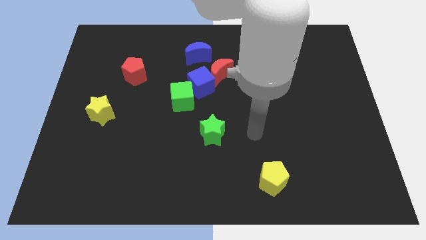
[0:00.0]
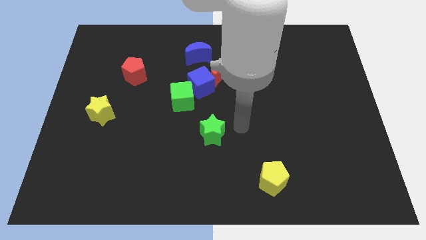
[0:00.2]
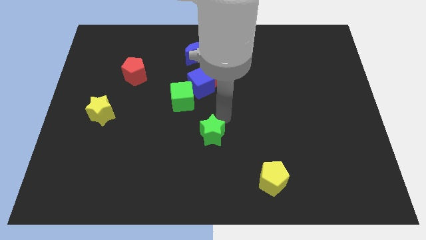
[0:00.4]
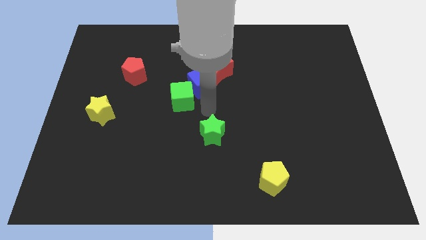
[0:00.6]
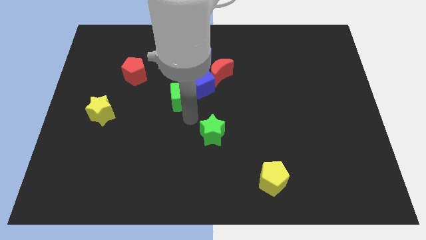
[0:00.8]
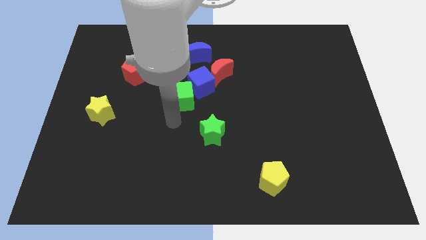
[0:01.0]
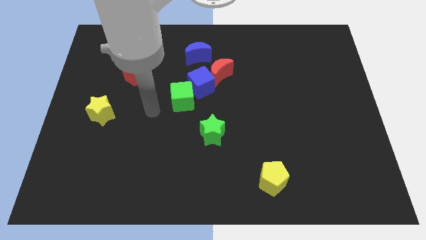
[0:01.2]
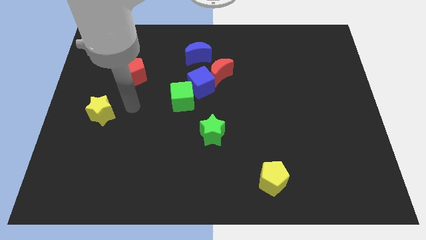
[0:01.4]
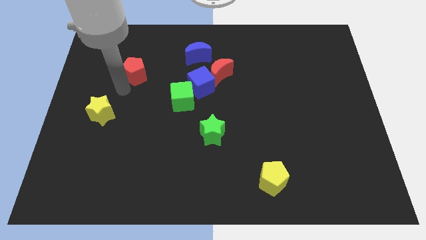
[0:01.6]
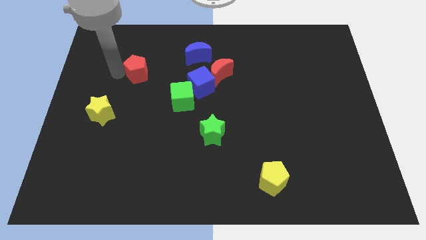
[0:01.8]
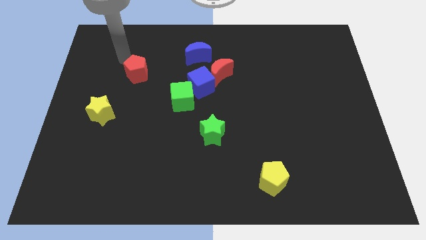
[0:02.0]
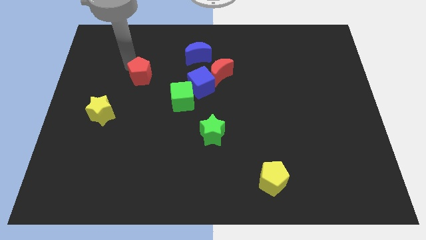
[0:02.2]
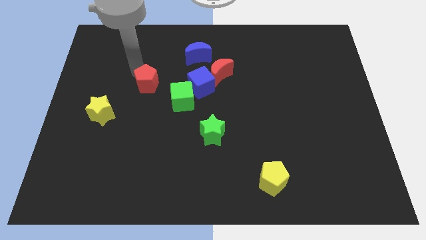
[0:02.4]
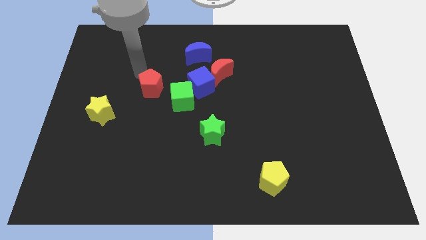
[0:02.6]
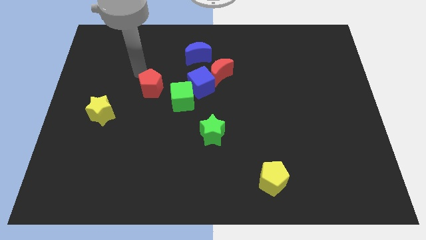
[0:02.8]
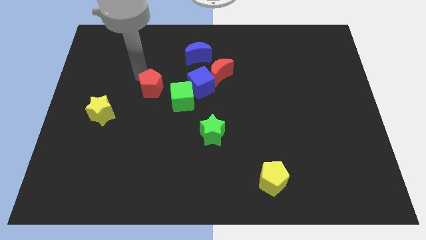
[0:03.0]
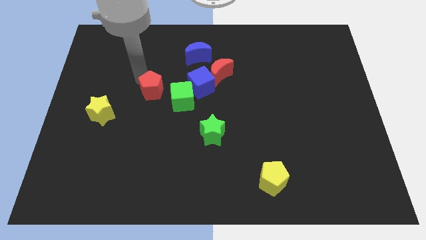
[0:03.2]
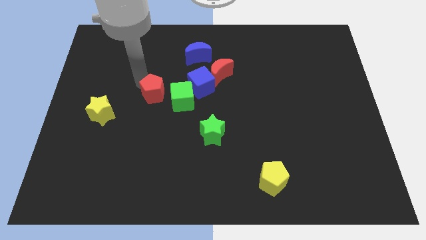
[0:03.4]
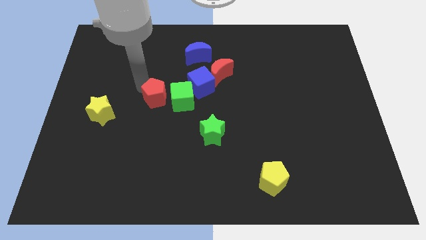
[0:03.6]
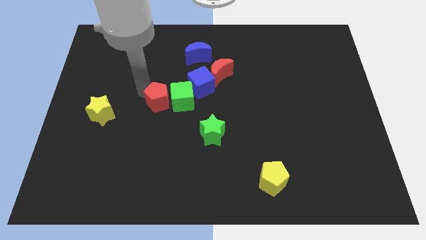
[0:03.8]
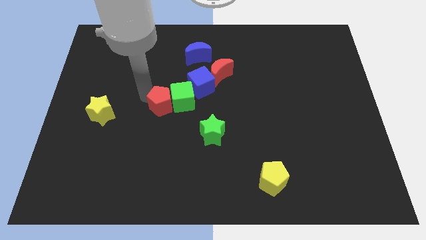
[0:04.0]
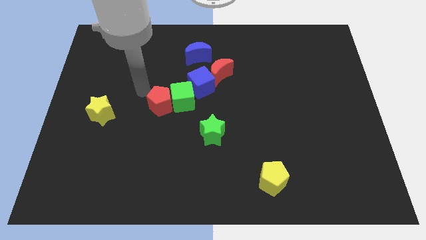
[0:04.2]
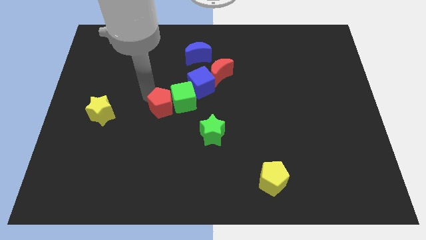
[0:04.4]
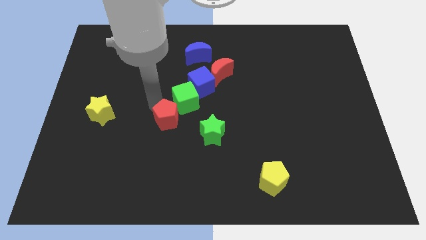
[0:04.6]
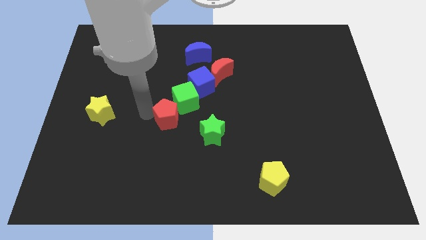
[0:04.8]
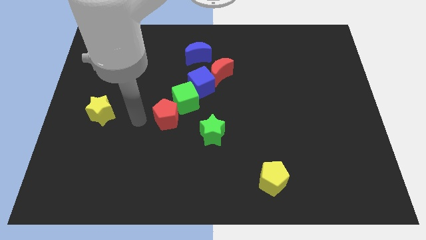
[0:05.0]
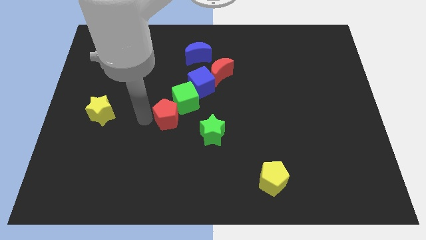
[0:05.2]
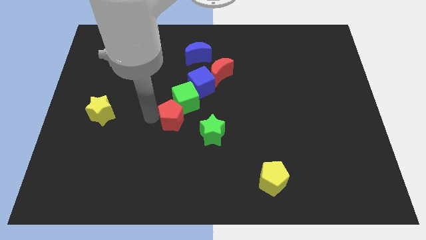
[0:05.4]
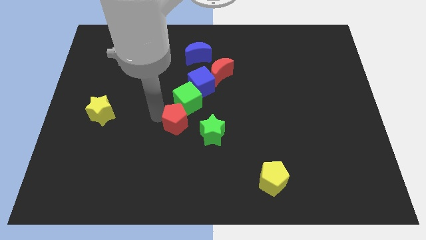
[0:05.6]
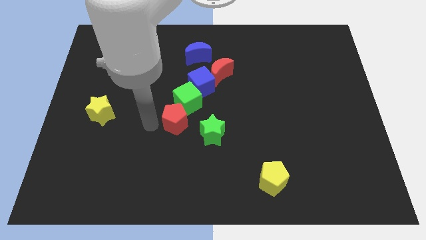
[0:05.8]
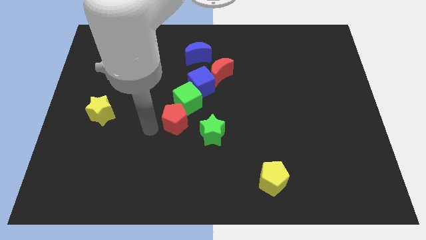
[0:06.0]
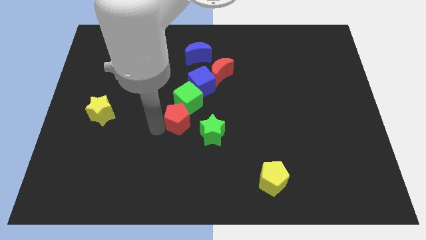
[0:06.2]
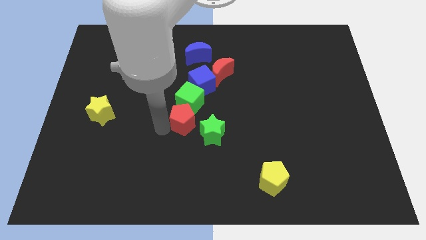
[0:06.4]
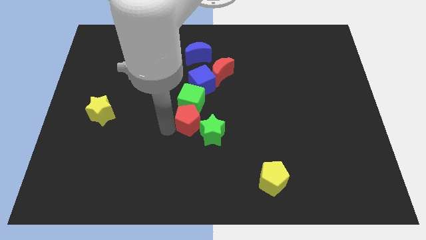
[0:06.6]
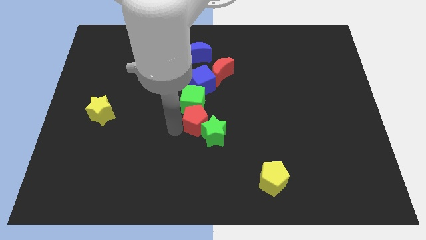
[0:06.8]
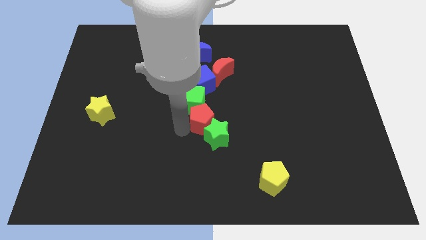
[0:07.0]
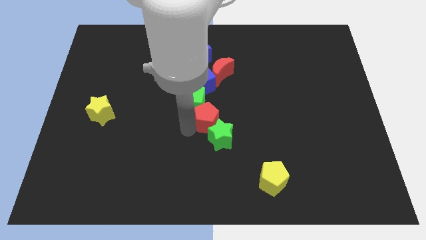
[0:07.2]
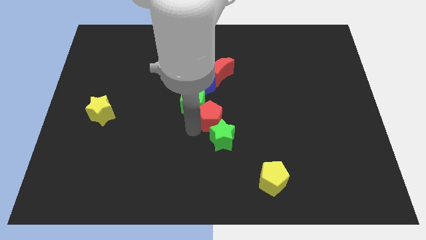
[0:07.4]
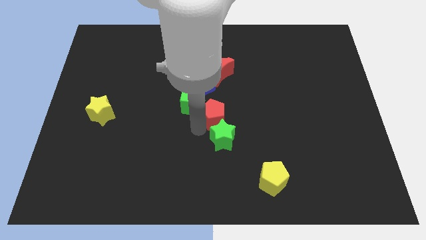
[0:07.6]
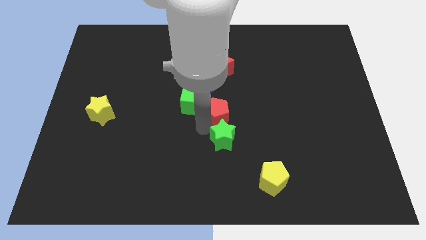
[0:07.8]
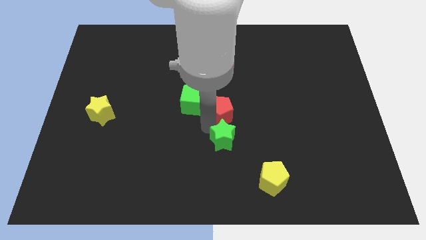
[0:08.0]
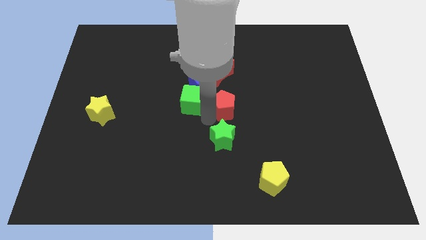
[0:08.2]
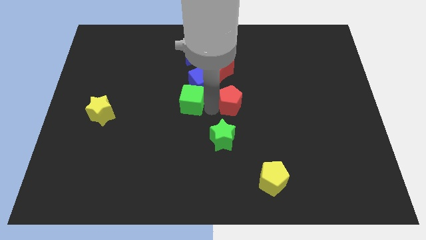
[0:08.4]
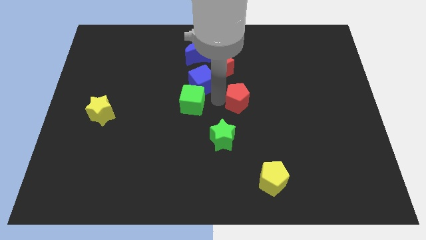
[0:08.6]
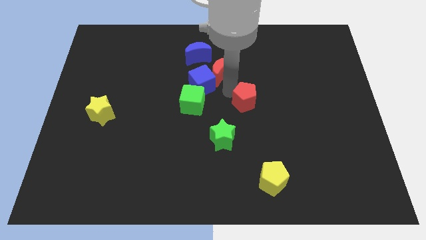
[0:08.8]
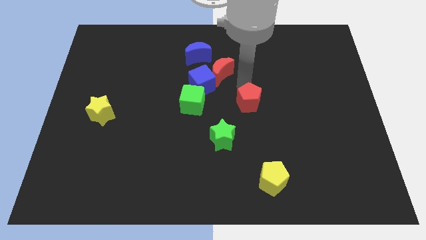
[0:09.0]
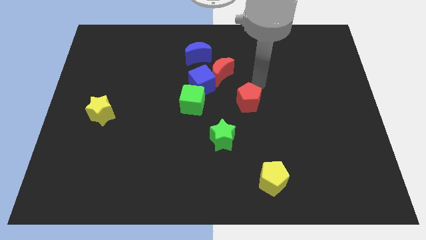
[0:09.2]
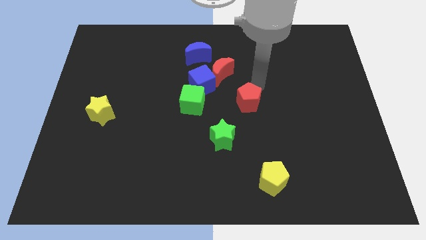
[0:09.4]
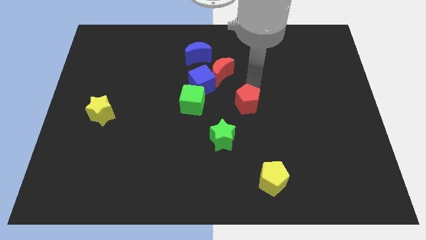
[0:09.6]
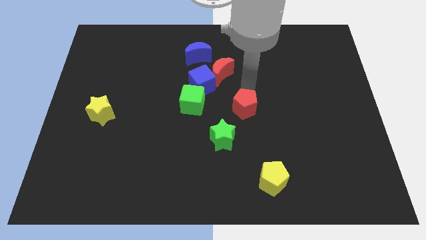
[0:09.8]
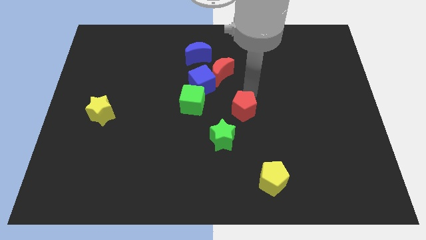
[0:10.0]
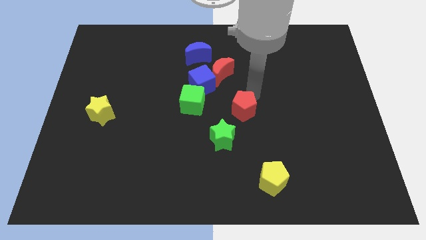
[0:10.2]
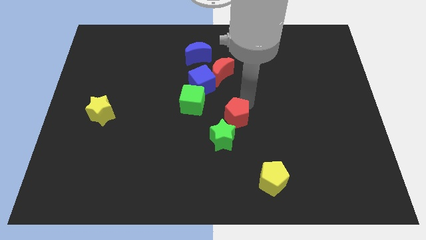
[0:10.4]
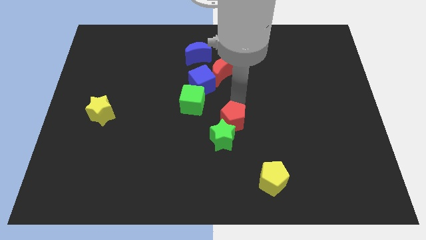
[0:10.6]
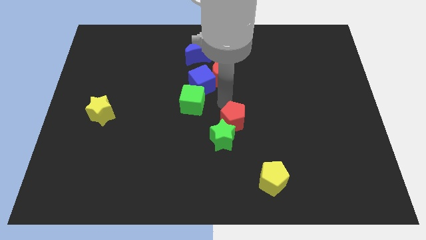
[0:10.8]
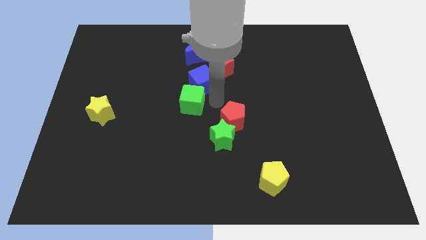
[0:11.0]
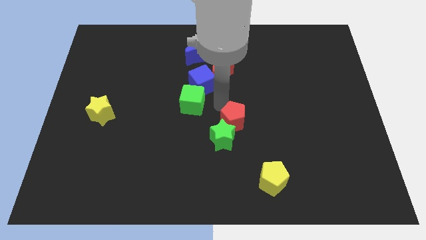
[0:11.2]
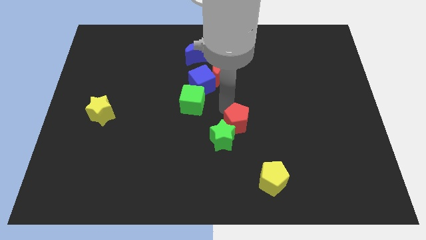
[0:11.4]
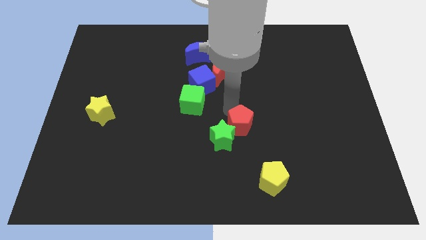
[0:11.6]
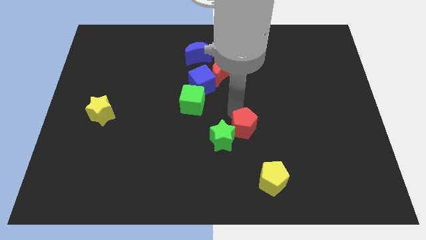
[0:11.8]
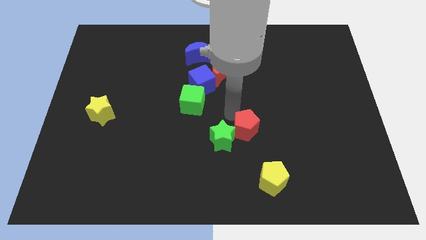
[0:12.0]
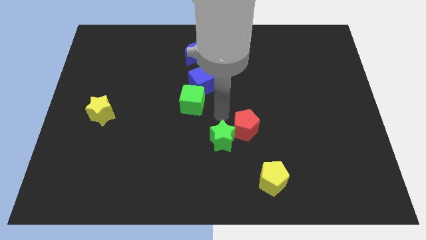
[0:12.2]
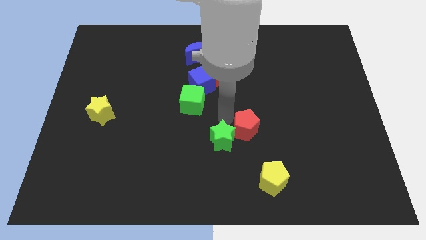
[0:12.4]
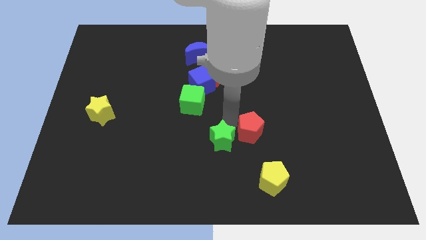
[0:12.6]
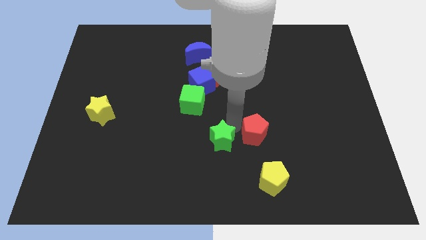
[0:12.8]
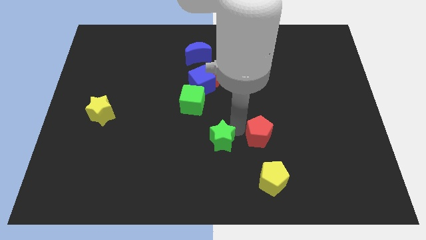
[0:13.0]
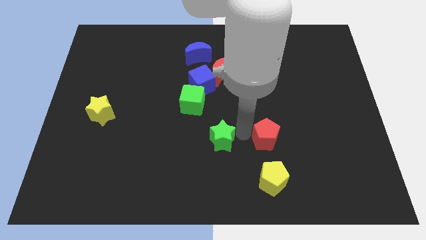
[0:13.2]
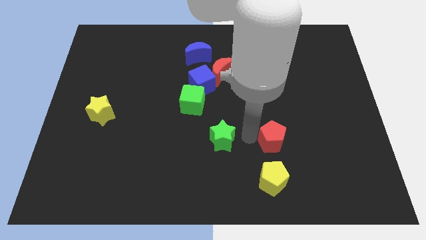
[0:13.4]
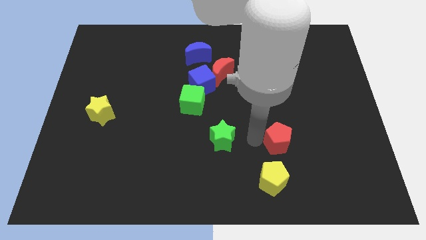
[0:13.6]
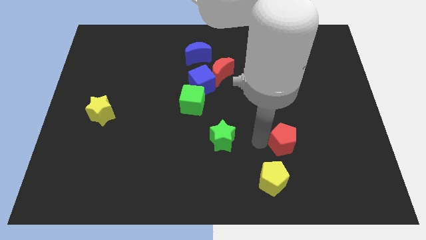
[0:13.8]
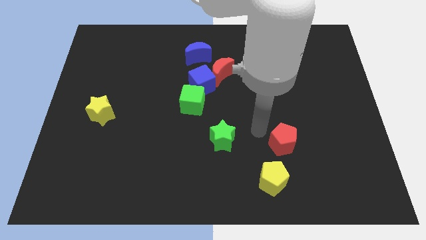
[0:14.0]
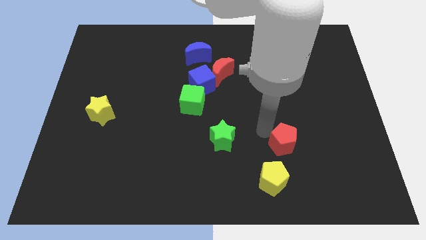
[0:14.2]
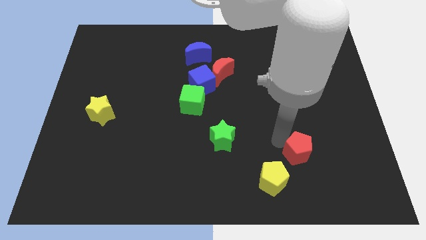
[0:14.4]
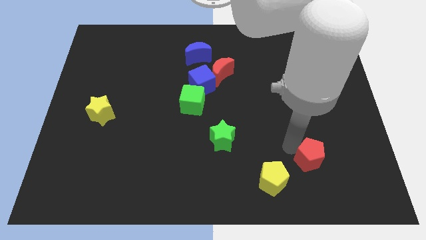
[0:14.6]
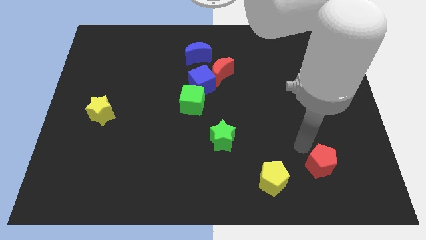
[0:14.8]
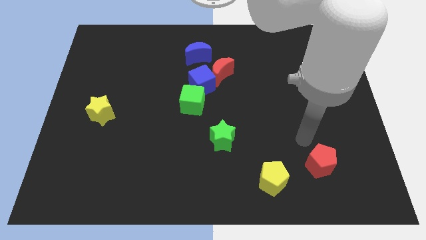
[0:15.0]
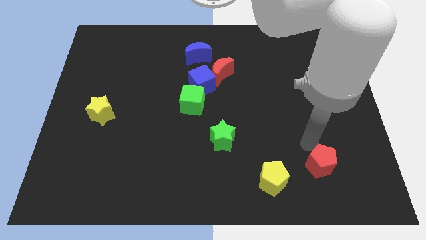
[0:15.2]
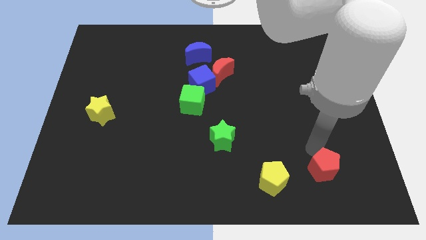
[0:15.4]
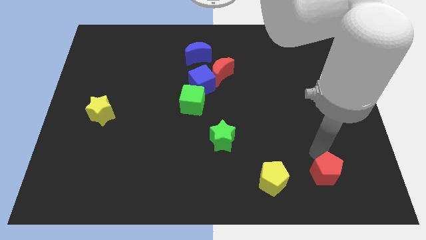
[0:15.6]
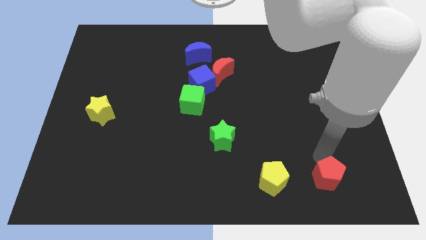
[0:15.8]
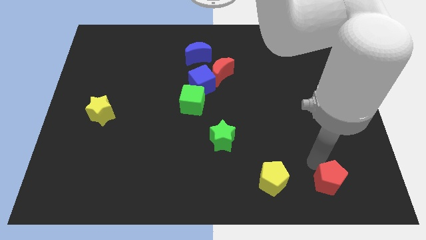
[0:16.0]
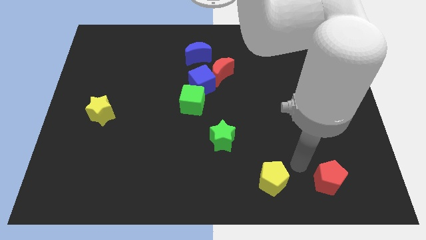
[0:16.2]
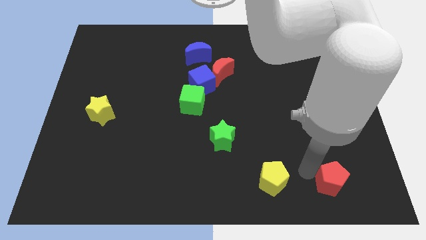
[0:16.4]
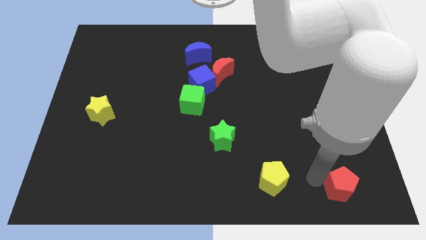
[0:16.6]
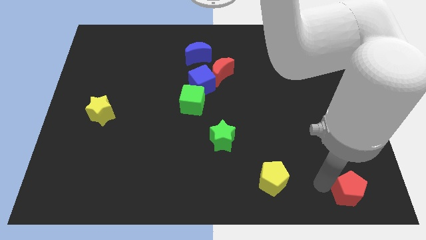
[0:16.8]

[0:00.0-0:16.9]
push the red pentagon to the bottom right of the board
